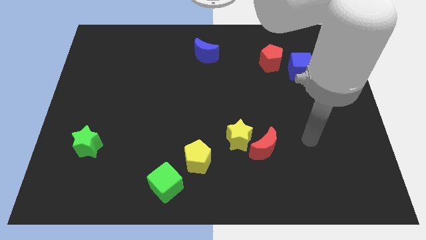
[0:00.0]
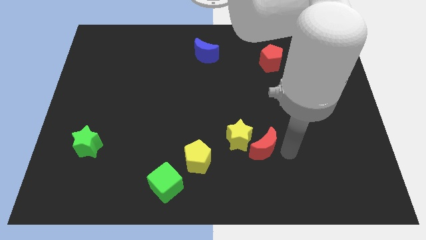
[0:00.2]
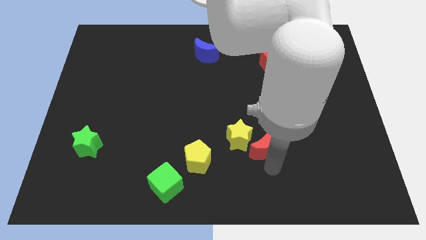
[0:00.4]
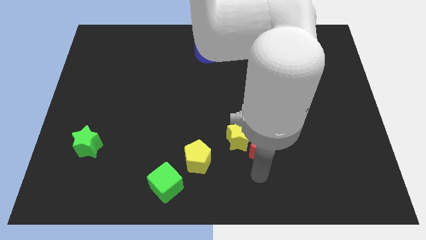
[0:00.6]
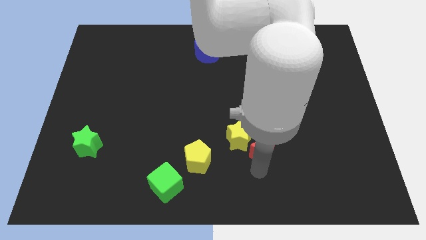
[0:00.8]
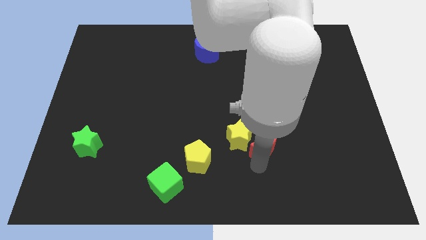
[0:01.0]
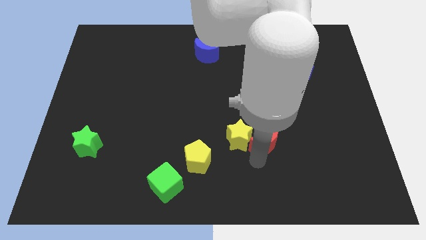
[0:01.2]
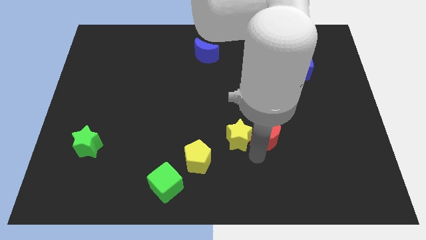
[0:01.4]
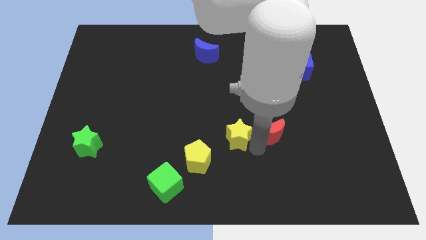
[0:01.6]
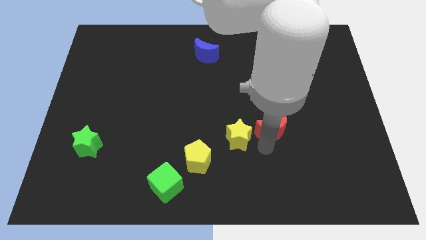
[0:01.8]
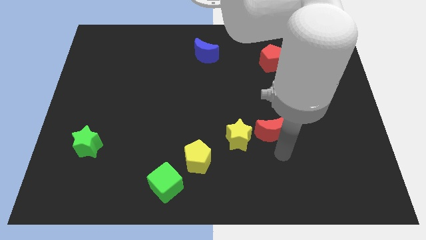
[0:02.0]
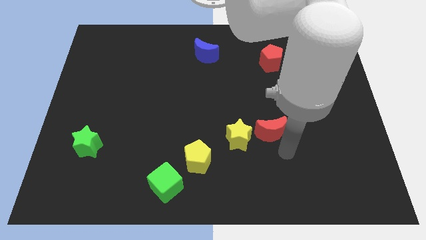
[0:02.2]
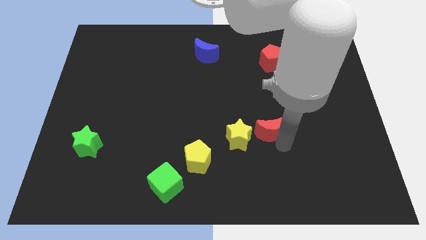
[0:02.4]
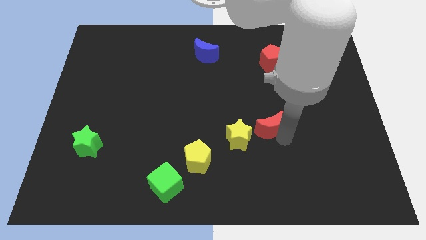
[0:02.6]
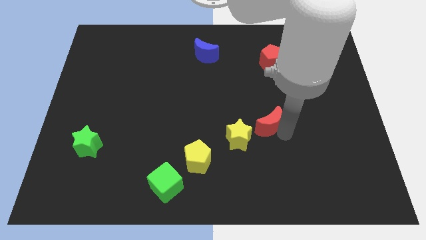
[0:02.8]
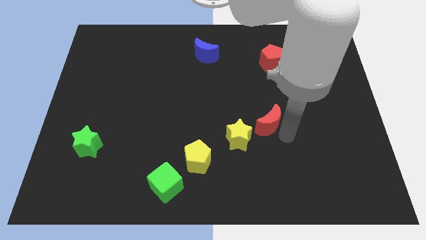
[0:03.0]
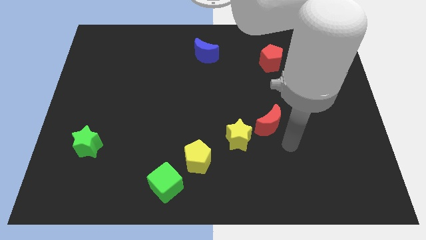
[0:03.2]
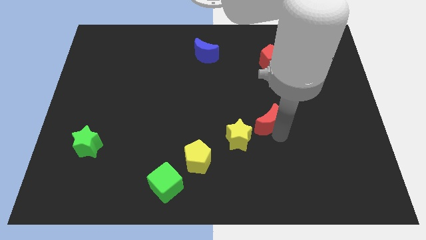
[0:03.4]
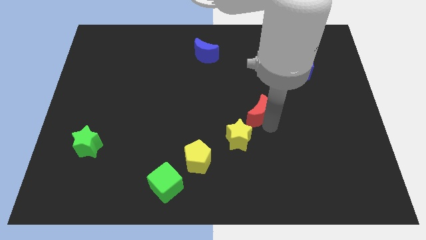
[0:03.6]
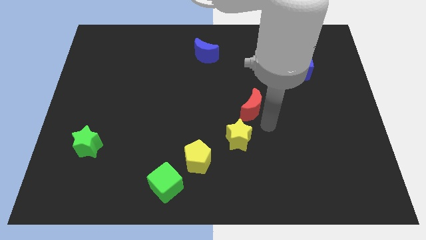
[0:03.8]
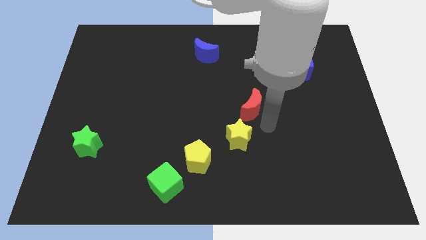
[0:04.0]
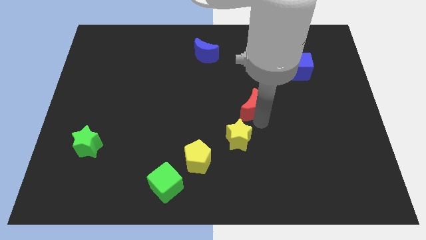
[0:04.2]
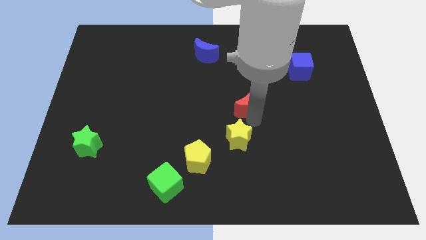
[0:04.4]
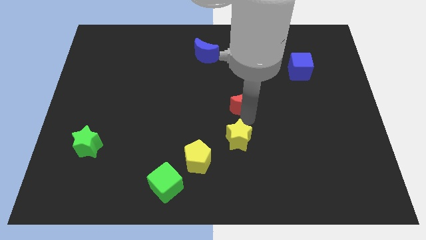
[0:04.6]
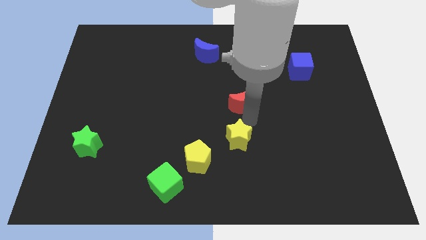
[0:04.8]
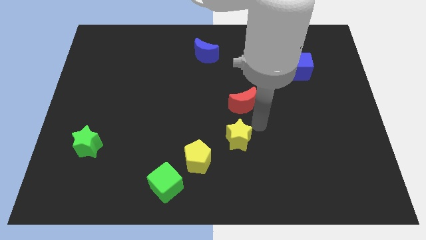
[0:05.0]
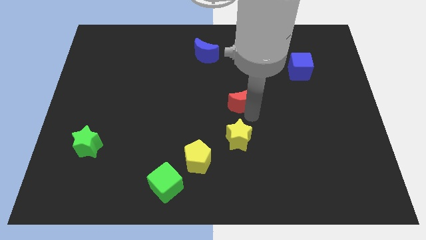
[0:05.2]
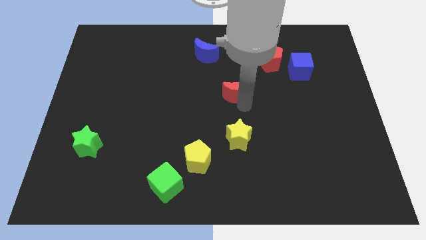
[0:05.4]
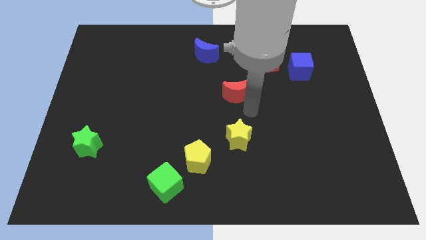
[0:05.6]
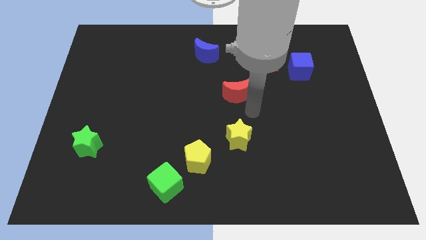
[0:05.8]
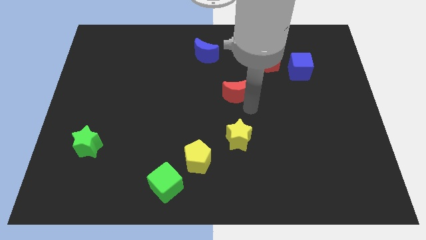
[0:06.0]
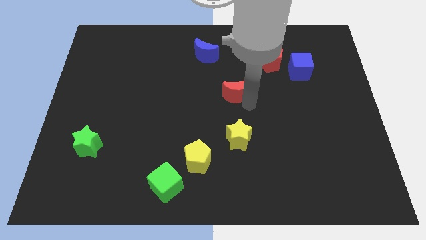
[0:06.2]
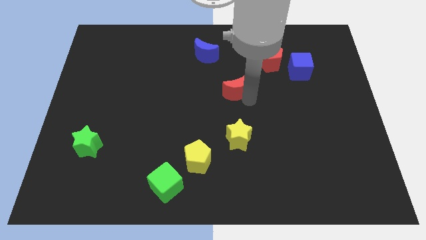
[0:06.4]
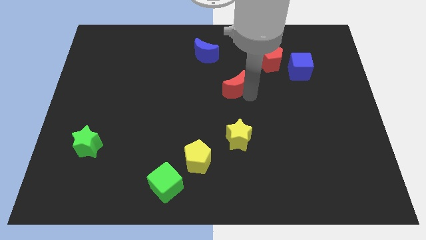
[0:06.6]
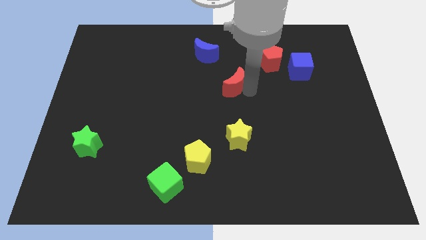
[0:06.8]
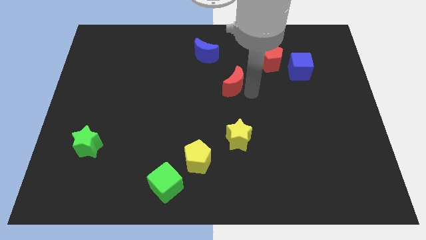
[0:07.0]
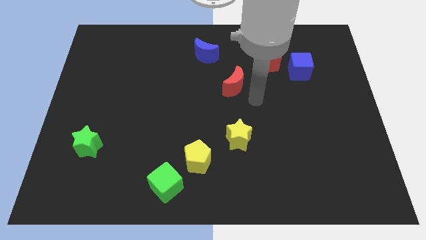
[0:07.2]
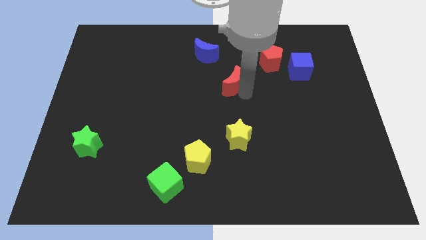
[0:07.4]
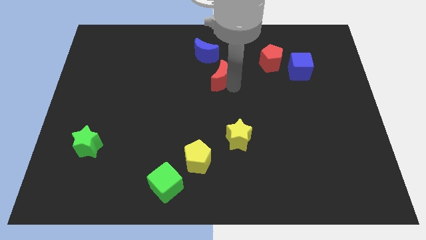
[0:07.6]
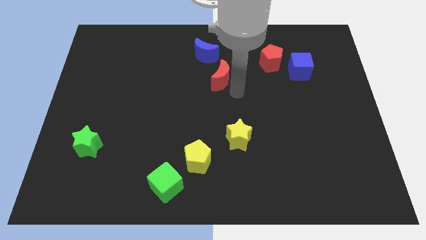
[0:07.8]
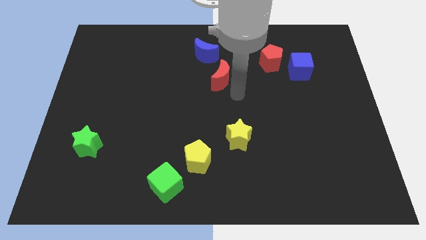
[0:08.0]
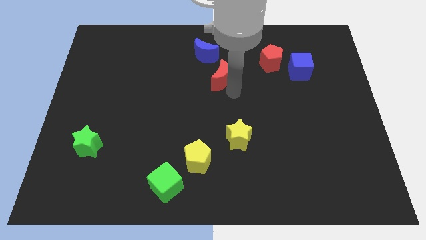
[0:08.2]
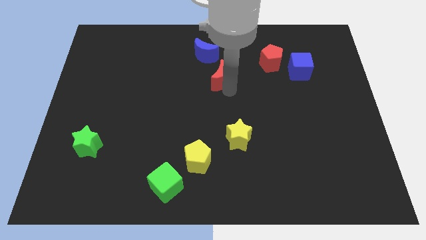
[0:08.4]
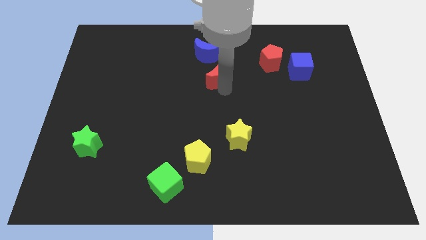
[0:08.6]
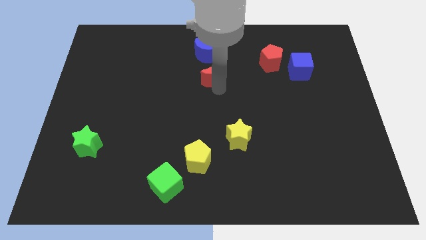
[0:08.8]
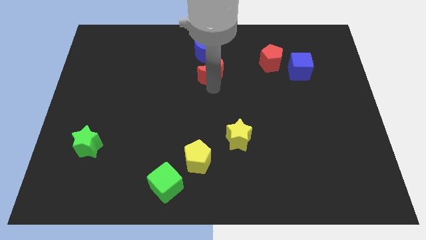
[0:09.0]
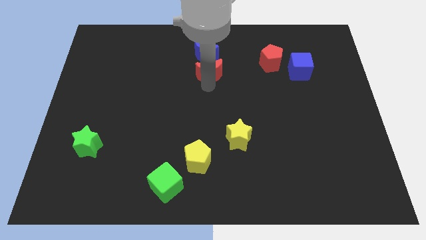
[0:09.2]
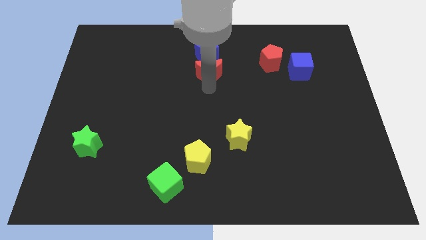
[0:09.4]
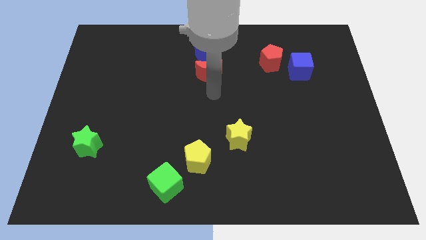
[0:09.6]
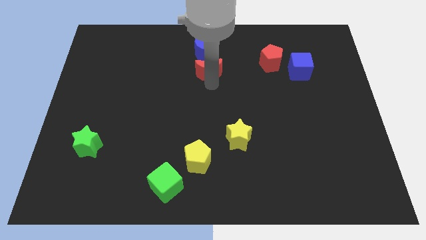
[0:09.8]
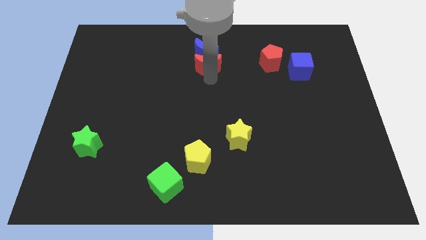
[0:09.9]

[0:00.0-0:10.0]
push the red moon towards the blue moon

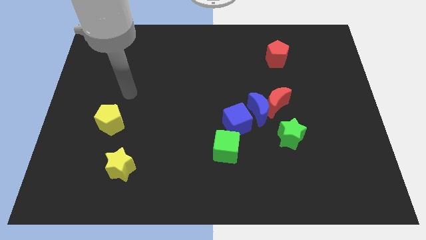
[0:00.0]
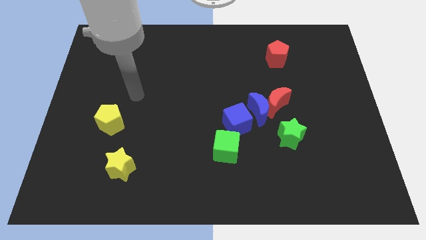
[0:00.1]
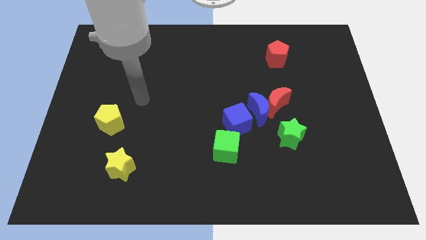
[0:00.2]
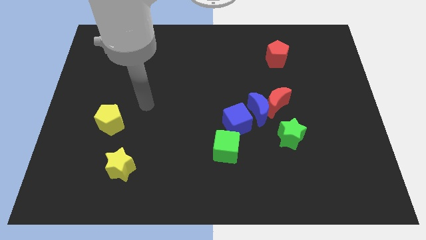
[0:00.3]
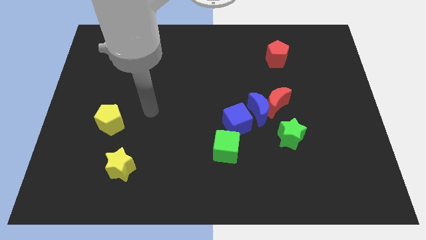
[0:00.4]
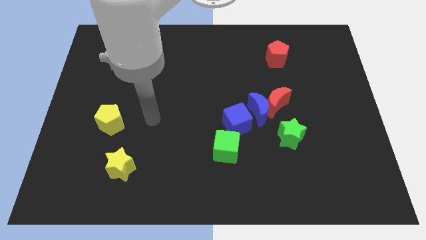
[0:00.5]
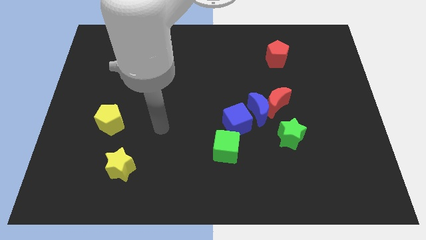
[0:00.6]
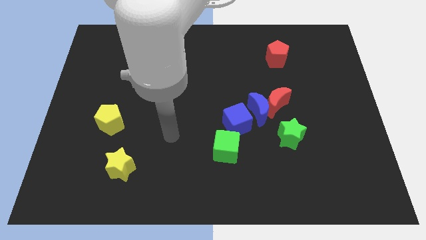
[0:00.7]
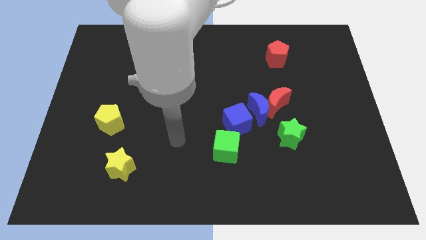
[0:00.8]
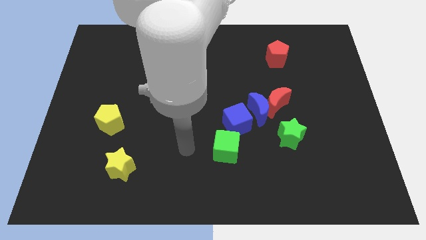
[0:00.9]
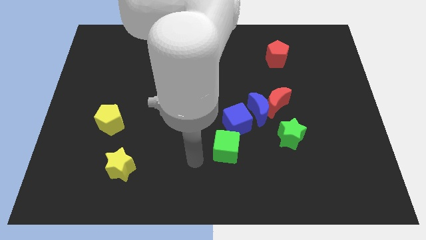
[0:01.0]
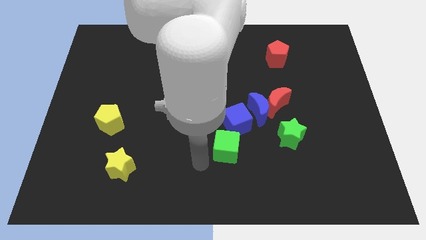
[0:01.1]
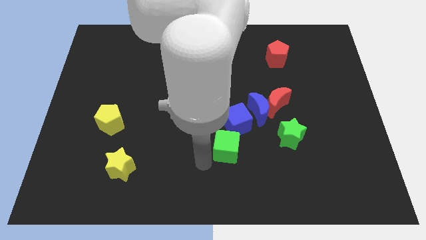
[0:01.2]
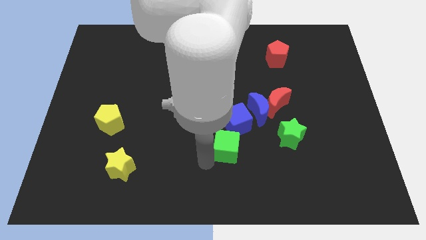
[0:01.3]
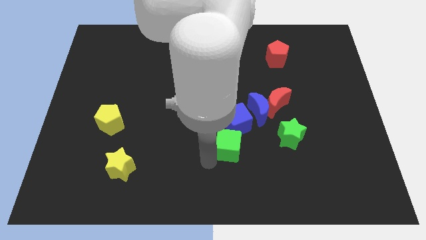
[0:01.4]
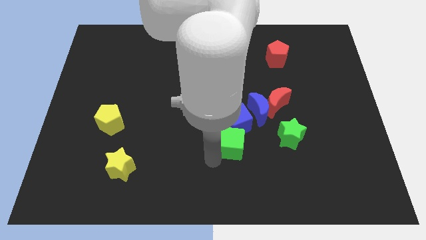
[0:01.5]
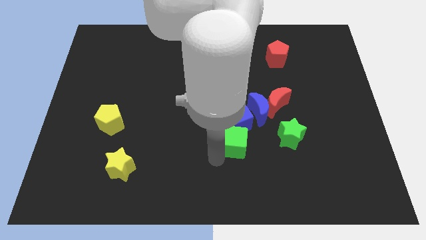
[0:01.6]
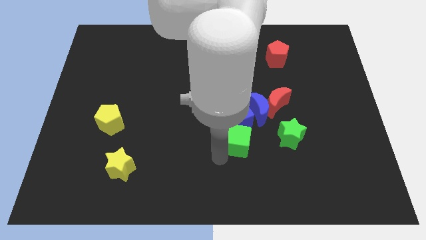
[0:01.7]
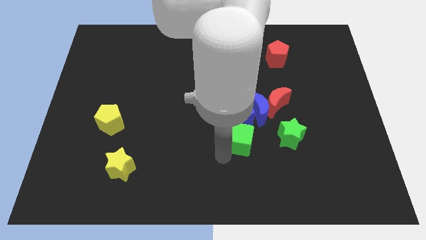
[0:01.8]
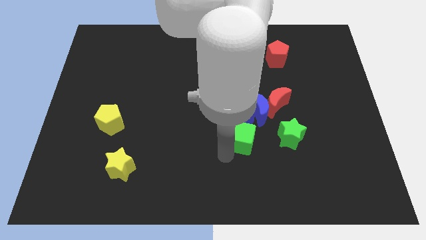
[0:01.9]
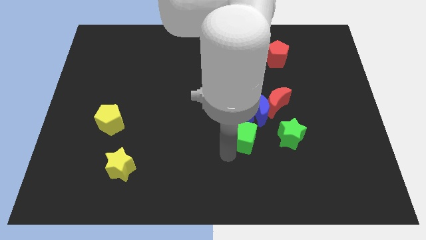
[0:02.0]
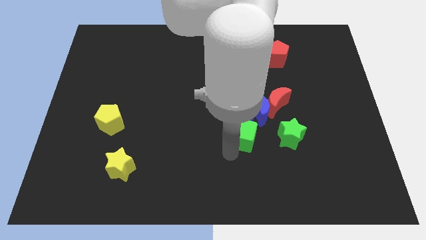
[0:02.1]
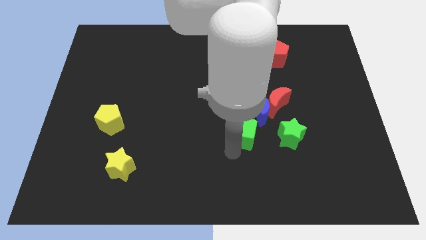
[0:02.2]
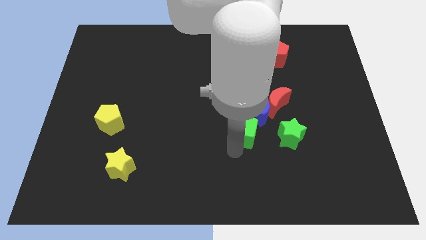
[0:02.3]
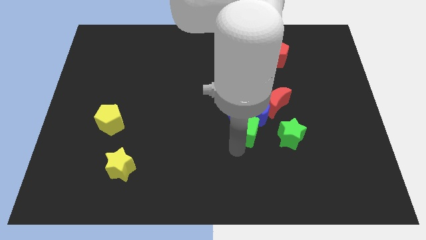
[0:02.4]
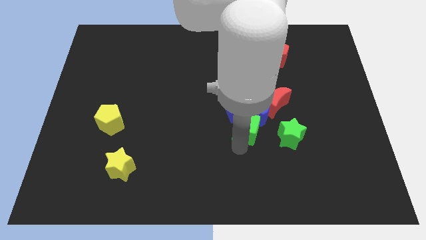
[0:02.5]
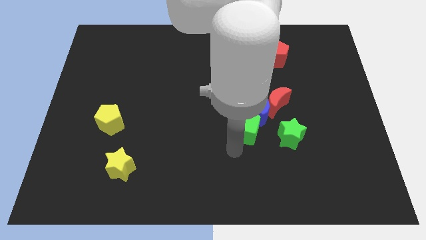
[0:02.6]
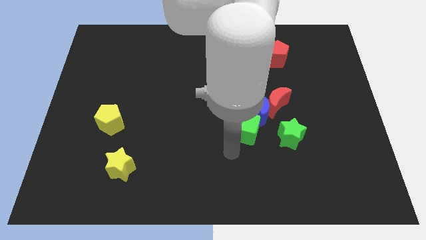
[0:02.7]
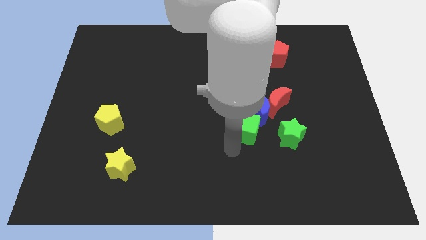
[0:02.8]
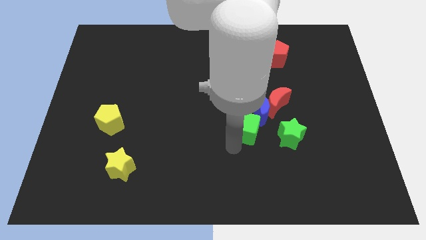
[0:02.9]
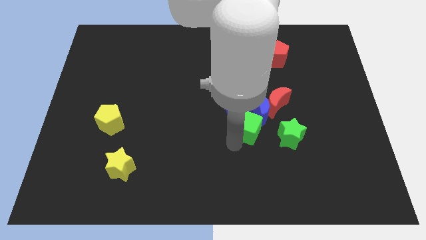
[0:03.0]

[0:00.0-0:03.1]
put the green cube close to the blue moon
